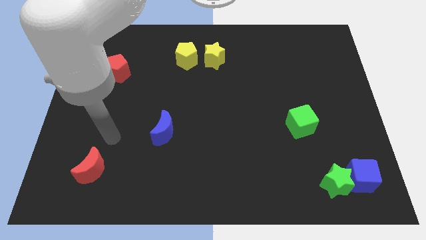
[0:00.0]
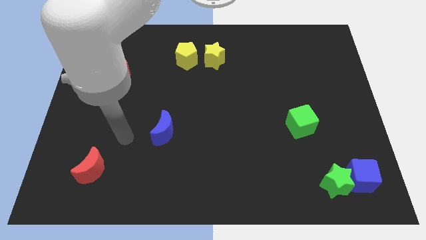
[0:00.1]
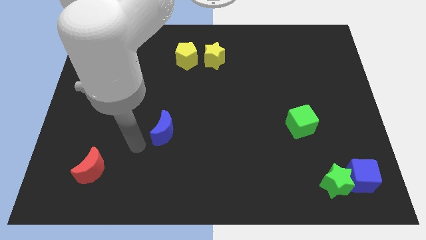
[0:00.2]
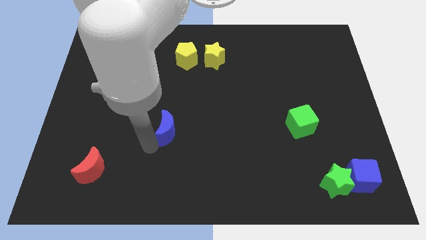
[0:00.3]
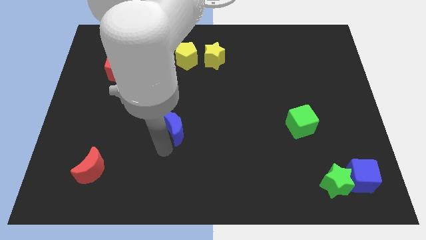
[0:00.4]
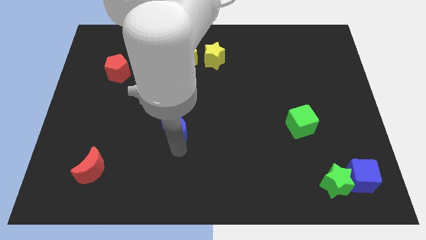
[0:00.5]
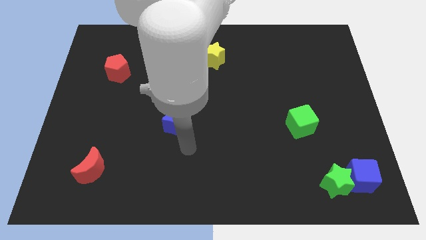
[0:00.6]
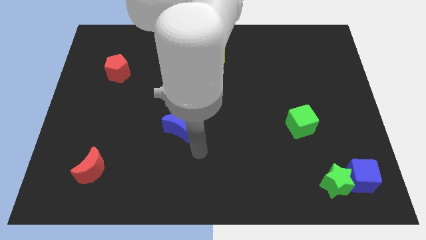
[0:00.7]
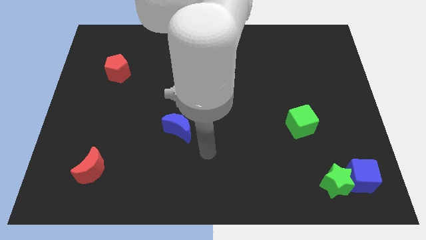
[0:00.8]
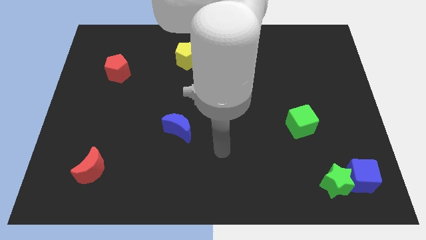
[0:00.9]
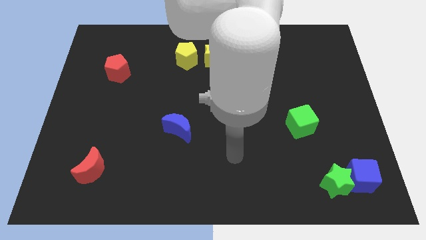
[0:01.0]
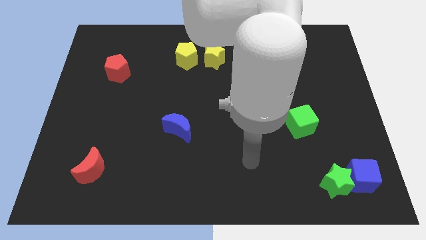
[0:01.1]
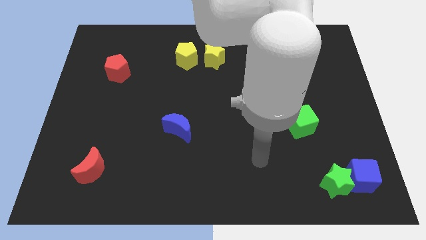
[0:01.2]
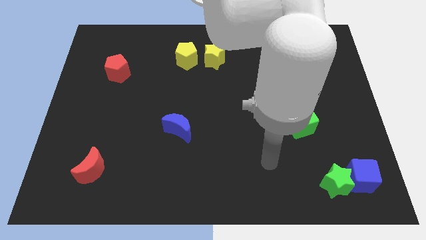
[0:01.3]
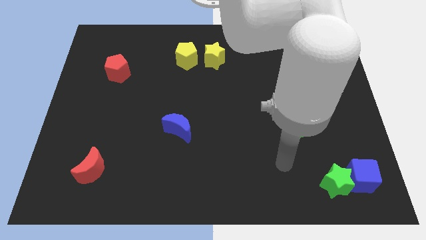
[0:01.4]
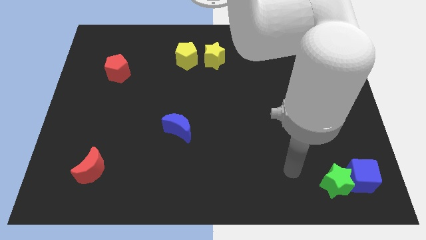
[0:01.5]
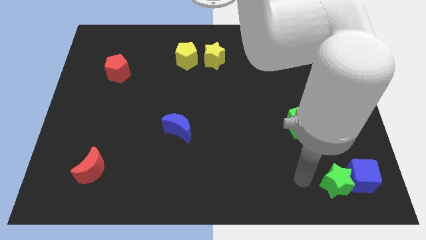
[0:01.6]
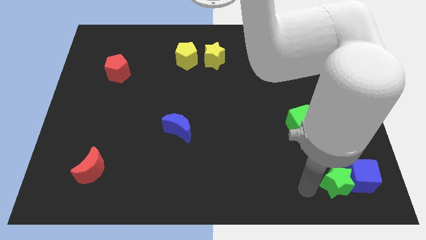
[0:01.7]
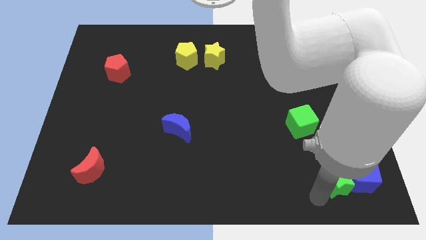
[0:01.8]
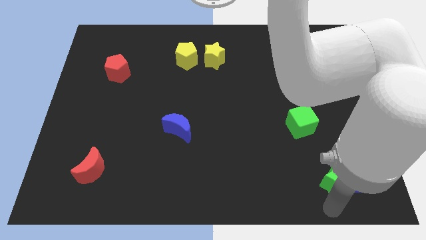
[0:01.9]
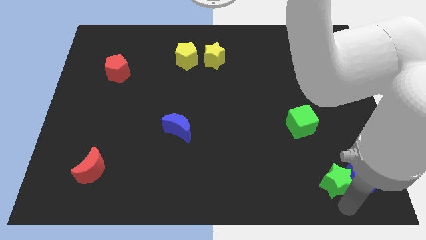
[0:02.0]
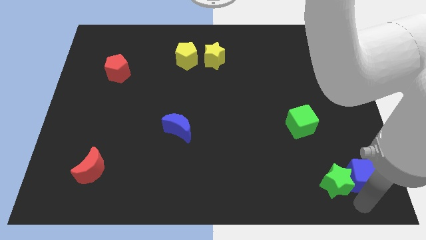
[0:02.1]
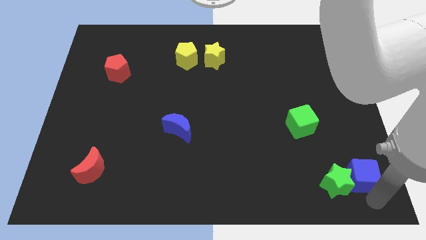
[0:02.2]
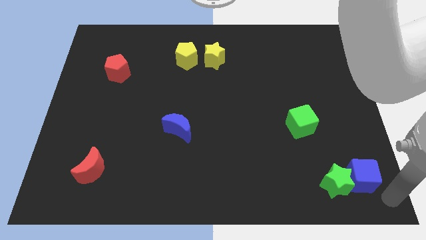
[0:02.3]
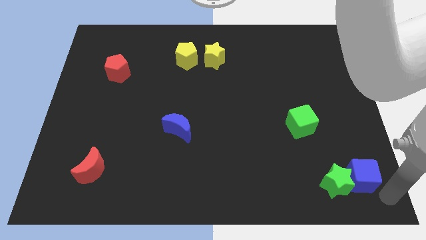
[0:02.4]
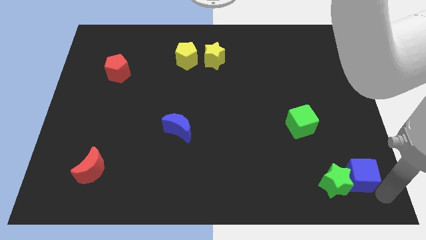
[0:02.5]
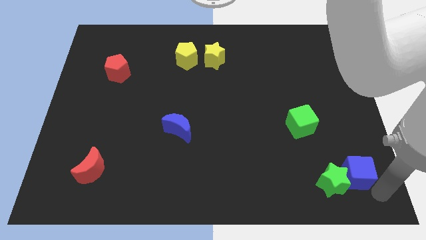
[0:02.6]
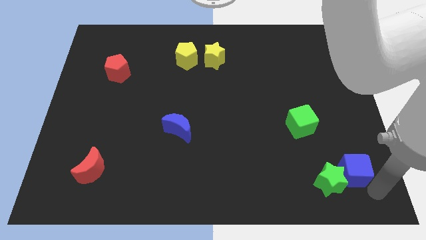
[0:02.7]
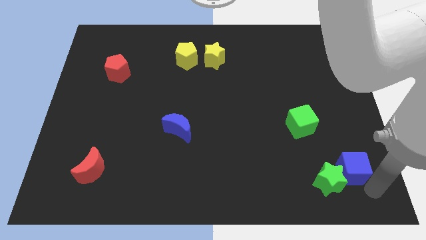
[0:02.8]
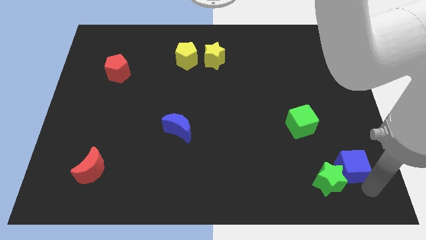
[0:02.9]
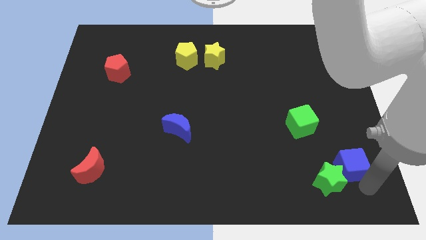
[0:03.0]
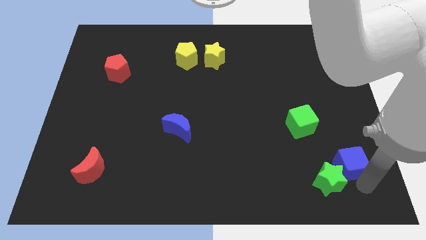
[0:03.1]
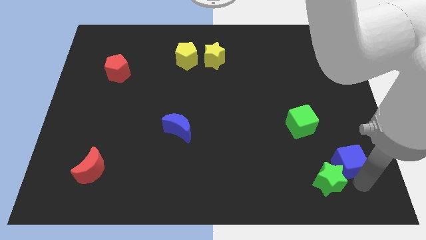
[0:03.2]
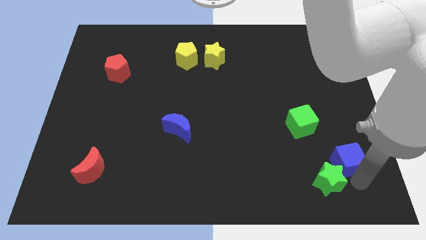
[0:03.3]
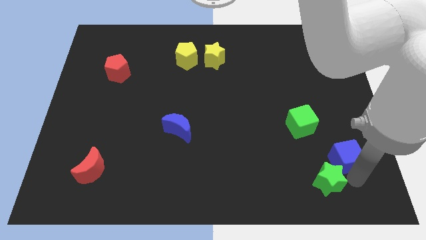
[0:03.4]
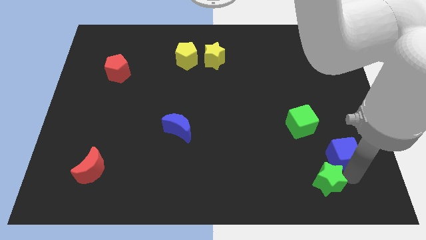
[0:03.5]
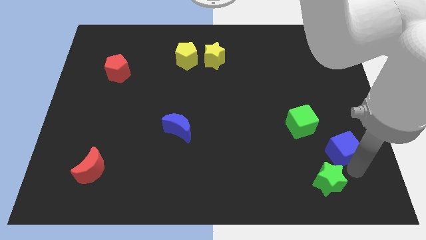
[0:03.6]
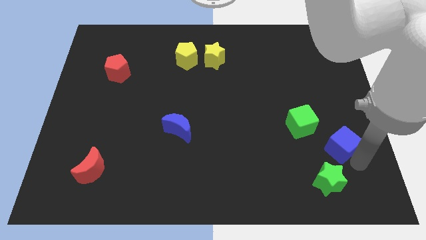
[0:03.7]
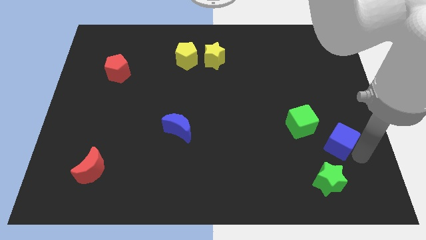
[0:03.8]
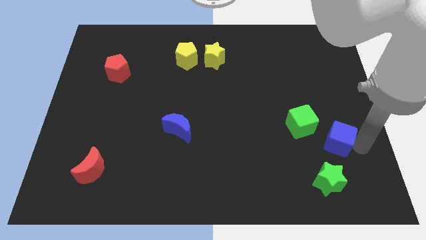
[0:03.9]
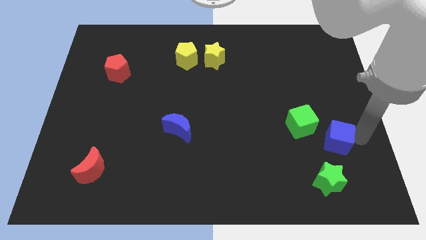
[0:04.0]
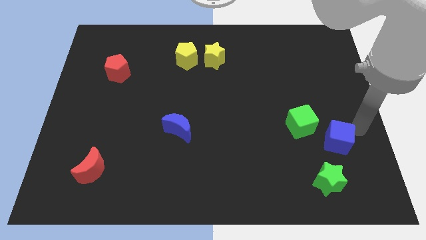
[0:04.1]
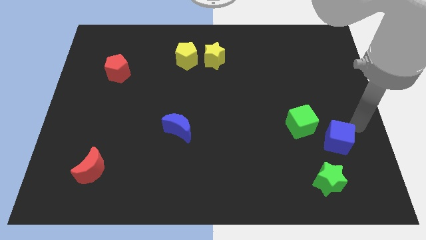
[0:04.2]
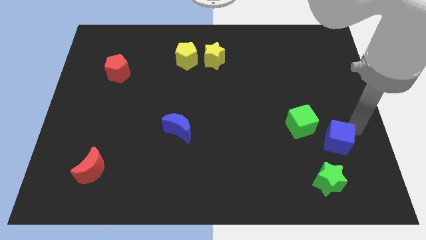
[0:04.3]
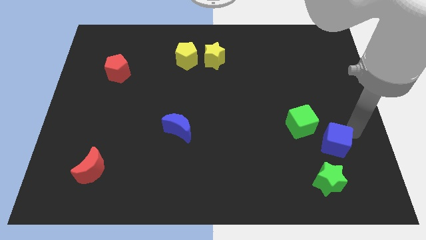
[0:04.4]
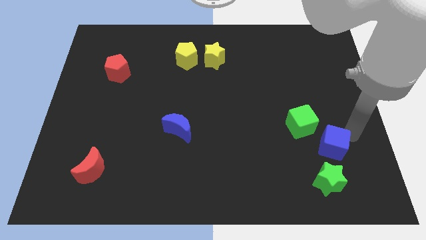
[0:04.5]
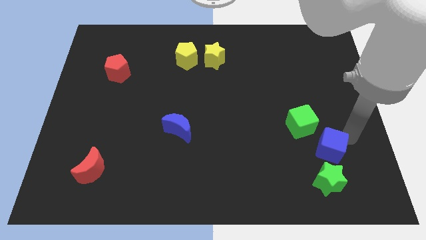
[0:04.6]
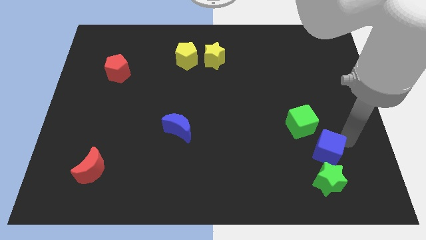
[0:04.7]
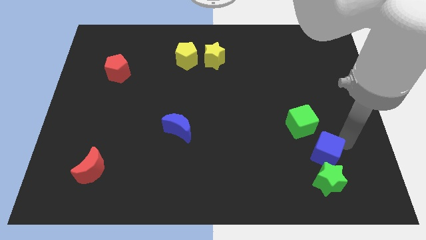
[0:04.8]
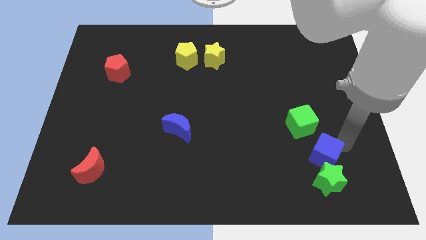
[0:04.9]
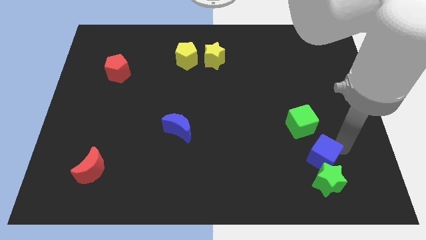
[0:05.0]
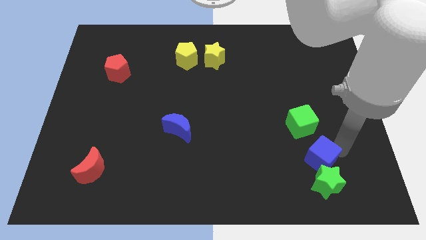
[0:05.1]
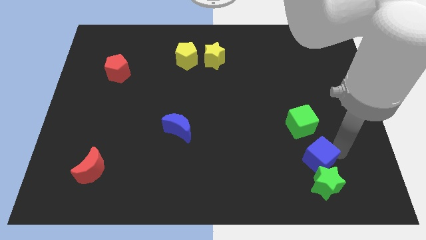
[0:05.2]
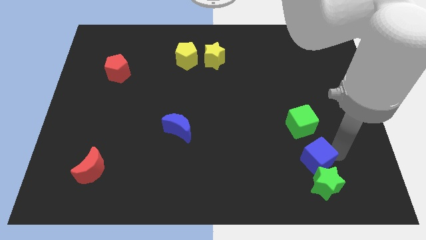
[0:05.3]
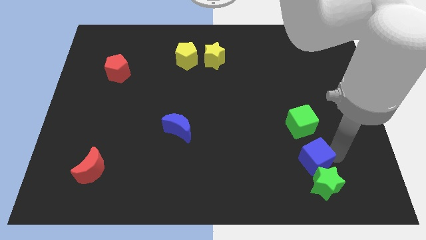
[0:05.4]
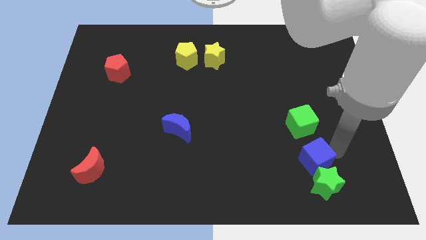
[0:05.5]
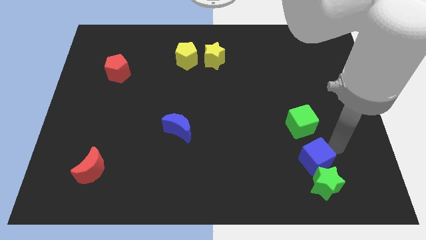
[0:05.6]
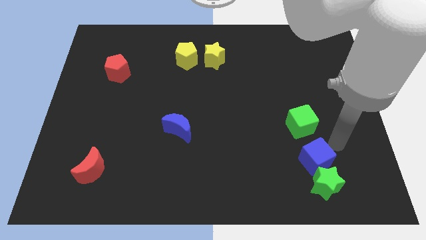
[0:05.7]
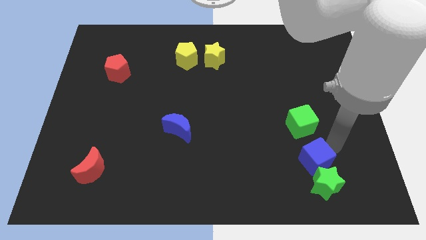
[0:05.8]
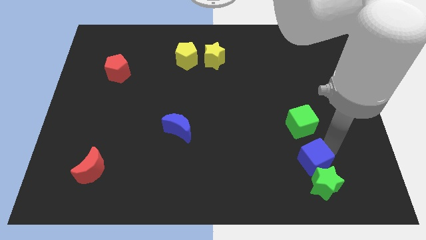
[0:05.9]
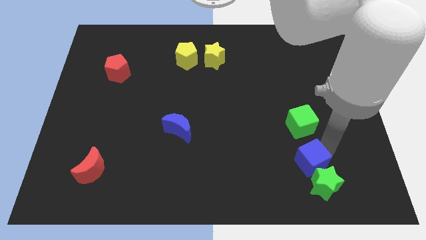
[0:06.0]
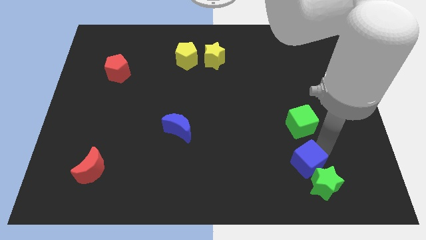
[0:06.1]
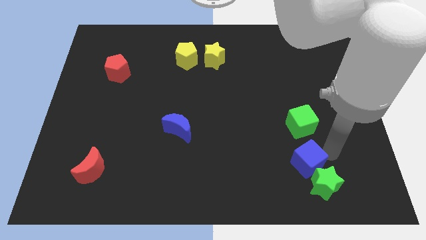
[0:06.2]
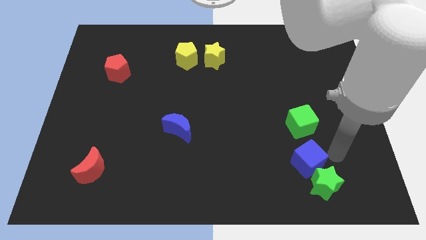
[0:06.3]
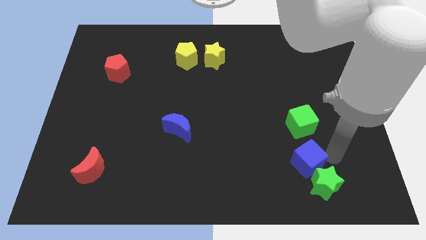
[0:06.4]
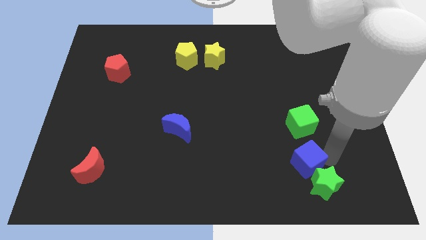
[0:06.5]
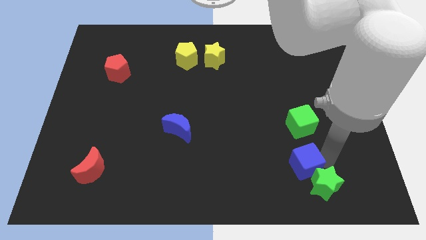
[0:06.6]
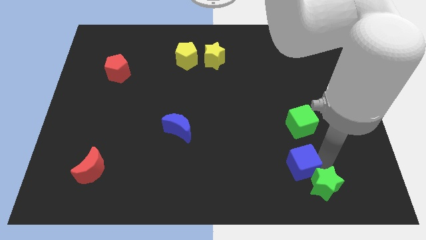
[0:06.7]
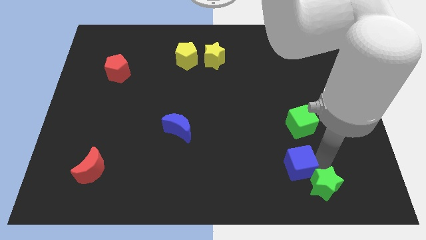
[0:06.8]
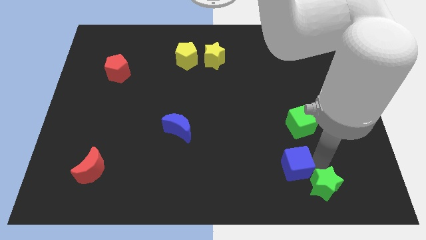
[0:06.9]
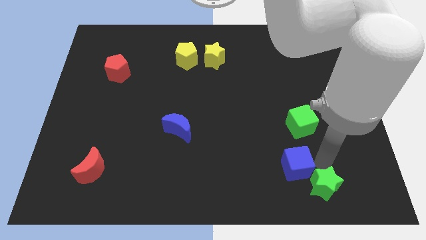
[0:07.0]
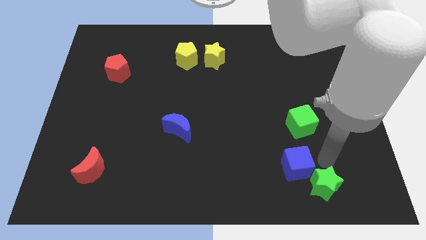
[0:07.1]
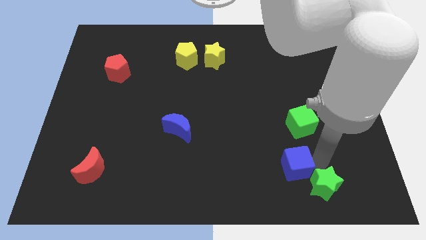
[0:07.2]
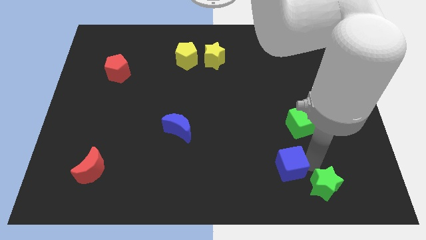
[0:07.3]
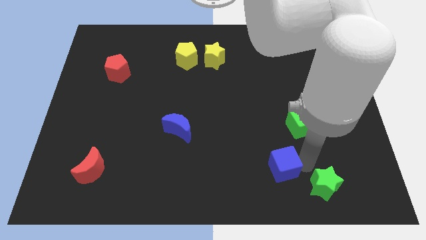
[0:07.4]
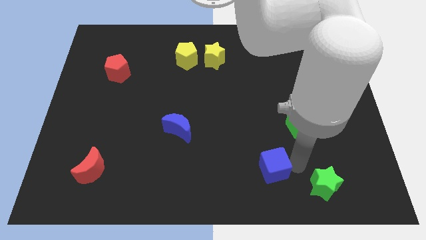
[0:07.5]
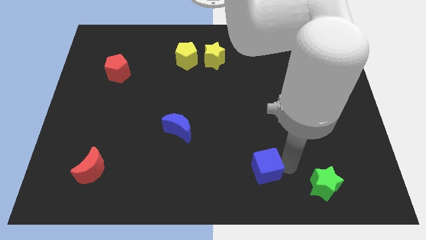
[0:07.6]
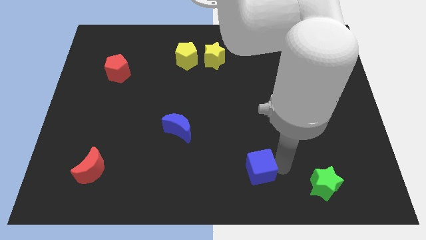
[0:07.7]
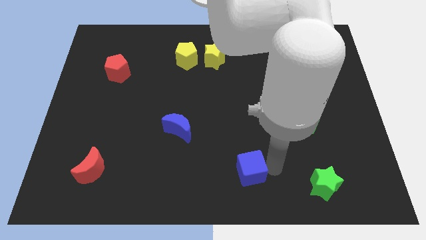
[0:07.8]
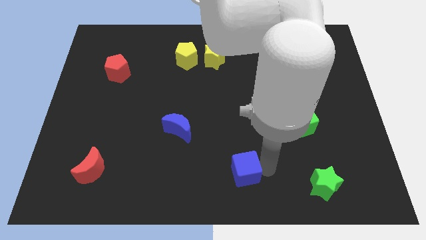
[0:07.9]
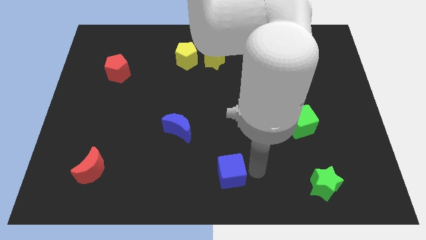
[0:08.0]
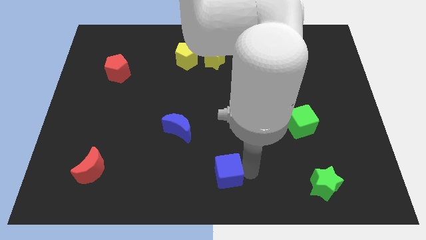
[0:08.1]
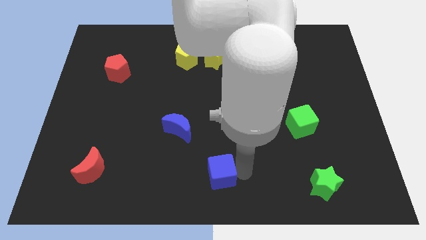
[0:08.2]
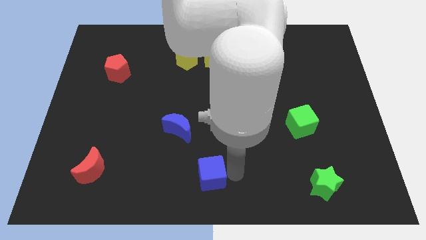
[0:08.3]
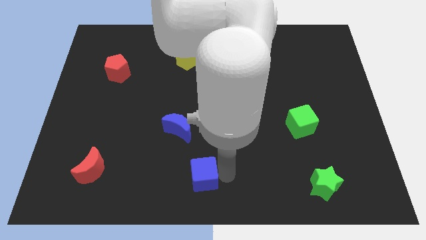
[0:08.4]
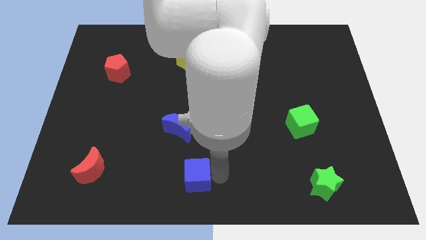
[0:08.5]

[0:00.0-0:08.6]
push the blue cube to the bottom of the blue moon
